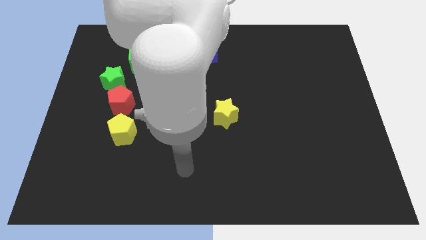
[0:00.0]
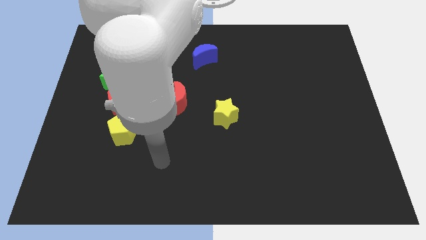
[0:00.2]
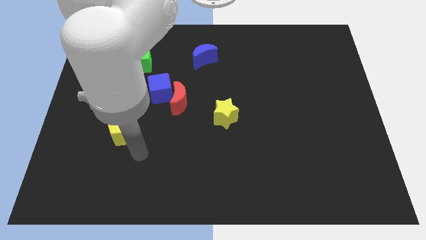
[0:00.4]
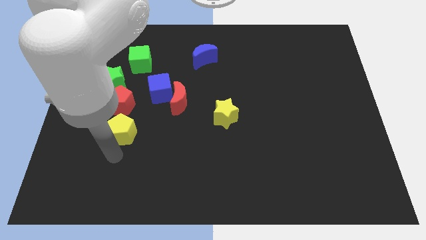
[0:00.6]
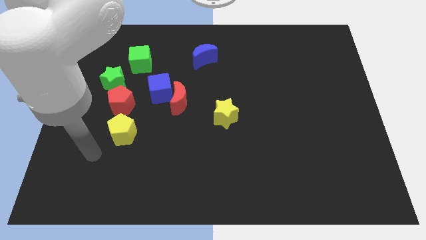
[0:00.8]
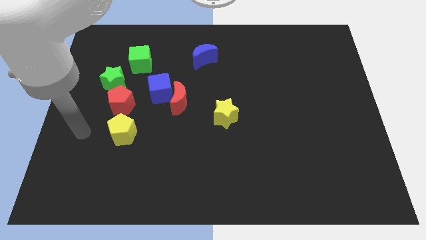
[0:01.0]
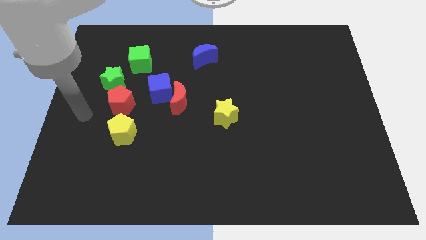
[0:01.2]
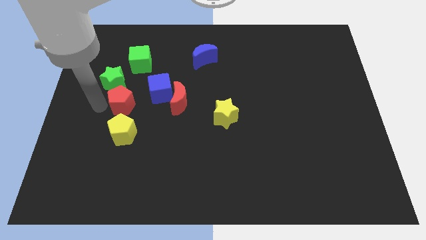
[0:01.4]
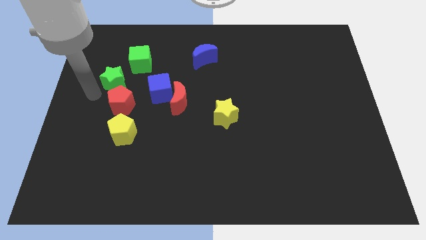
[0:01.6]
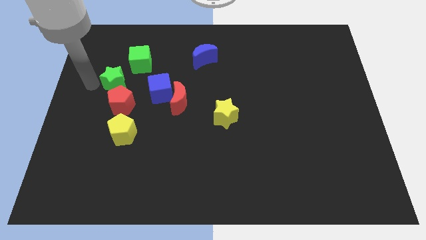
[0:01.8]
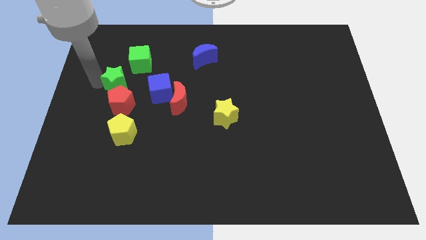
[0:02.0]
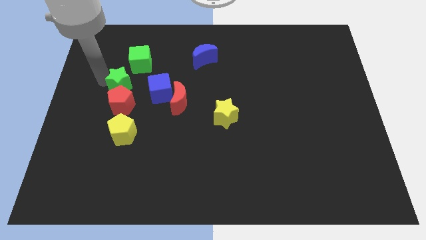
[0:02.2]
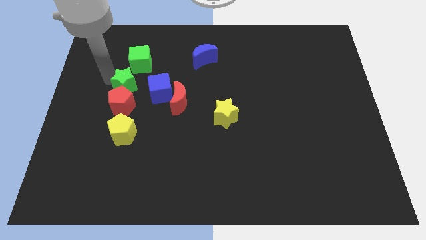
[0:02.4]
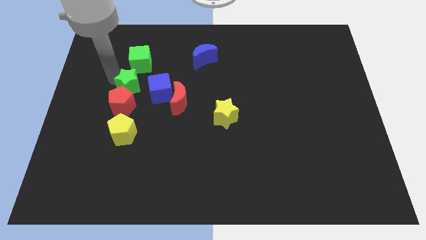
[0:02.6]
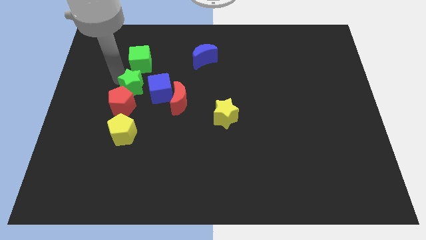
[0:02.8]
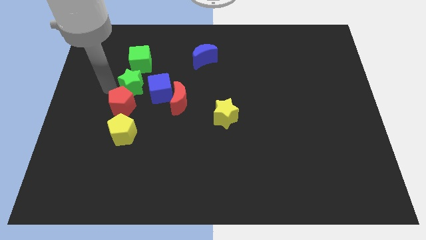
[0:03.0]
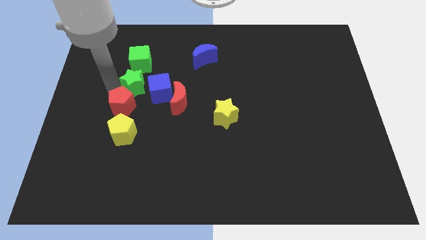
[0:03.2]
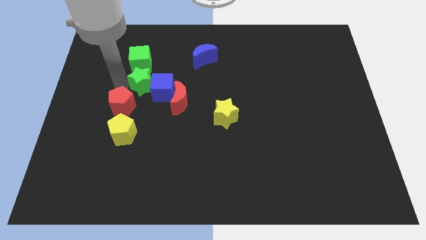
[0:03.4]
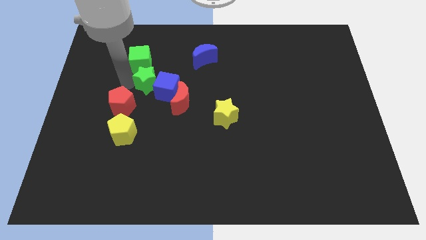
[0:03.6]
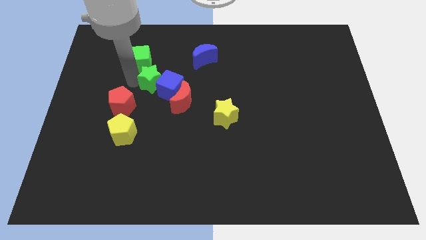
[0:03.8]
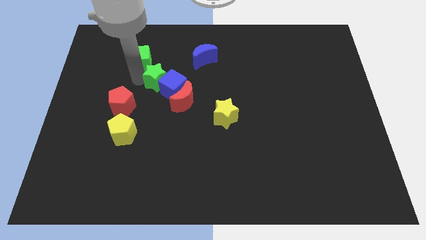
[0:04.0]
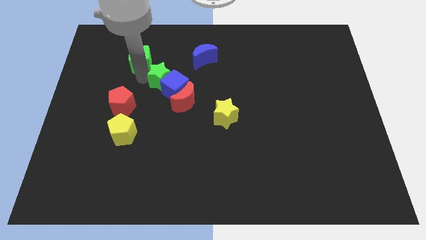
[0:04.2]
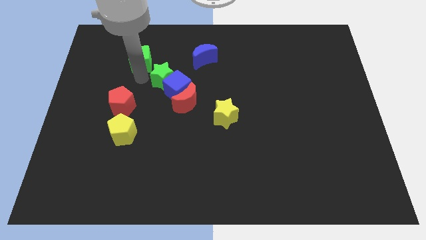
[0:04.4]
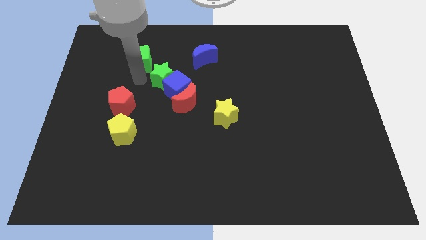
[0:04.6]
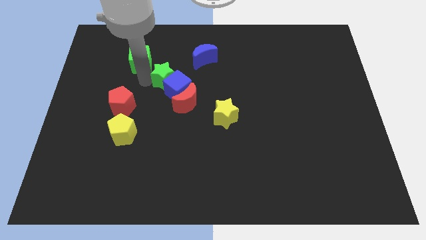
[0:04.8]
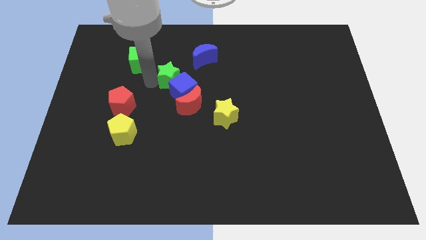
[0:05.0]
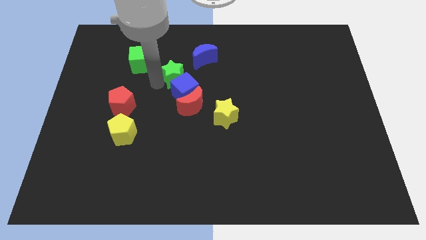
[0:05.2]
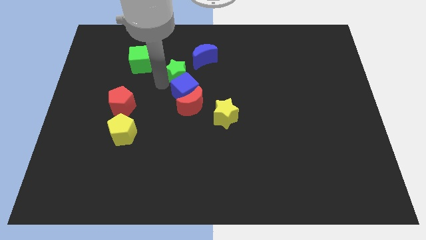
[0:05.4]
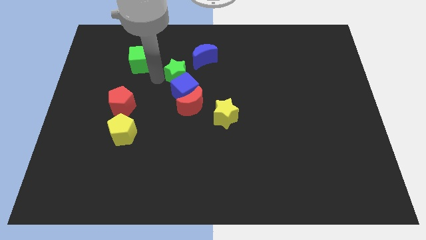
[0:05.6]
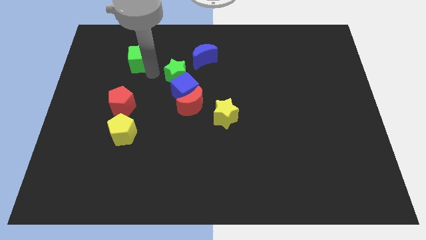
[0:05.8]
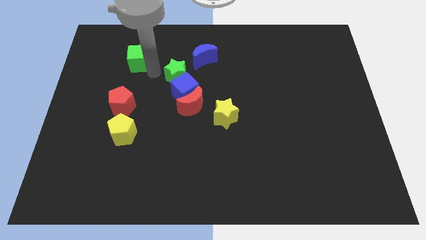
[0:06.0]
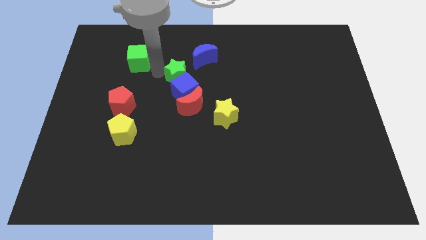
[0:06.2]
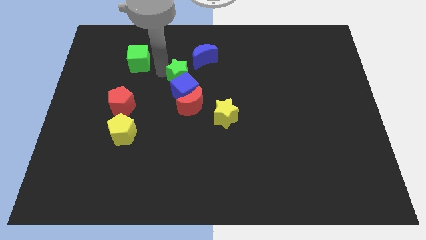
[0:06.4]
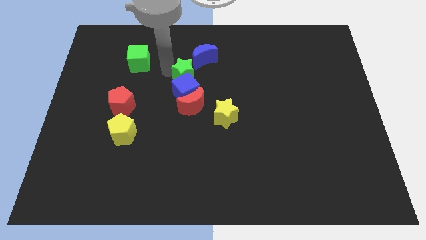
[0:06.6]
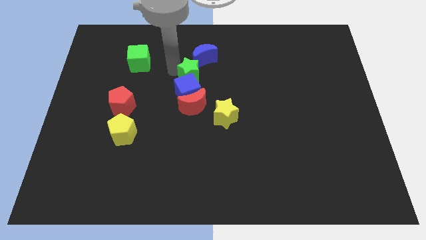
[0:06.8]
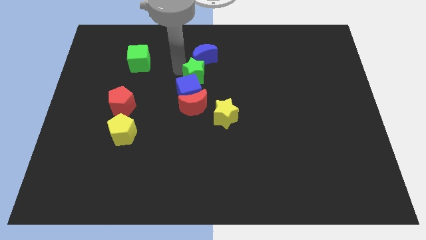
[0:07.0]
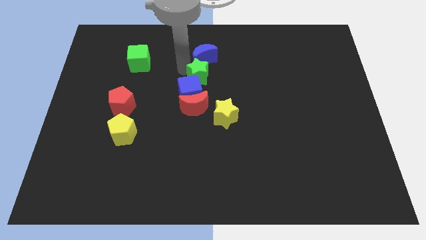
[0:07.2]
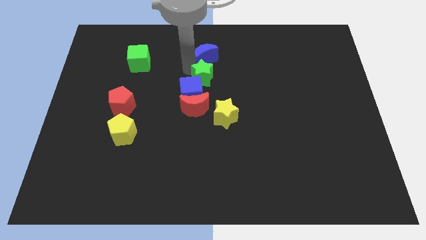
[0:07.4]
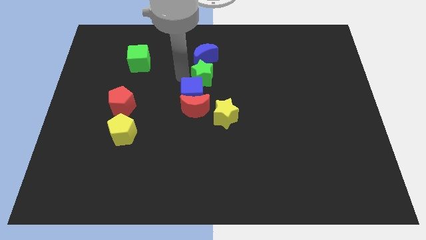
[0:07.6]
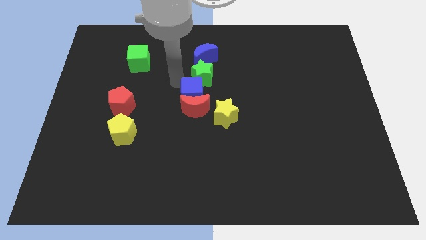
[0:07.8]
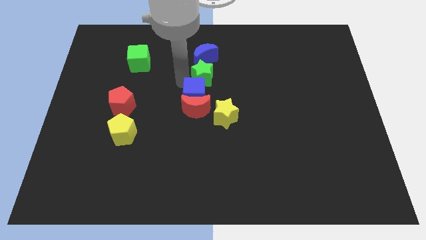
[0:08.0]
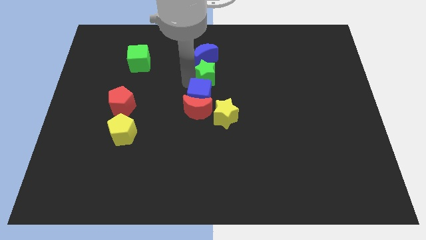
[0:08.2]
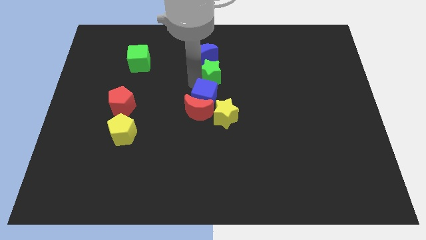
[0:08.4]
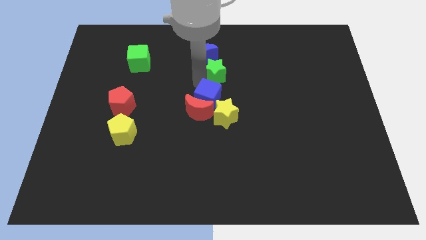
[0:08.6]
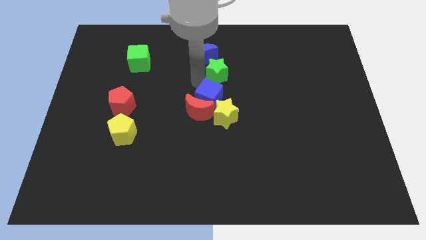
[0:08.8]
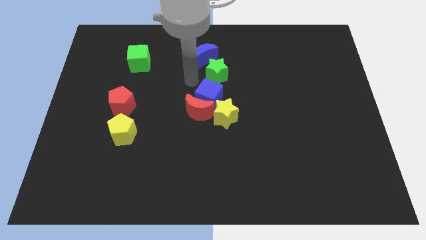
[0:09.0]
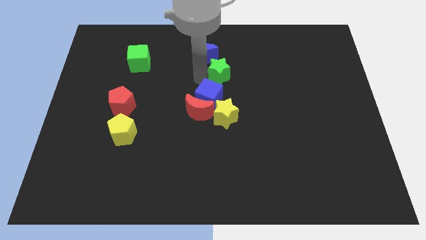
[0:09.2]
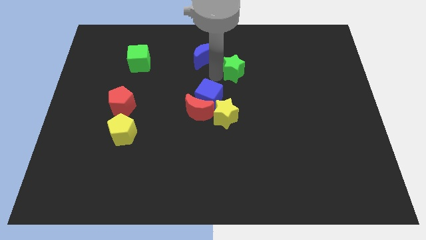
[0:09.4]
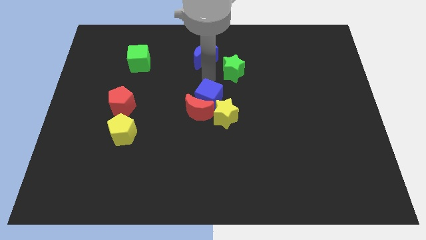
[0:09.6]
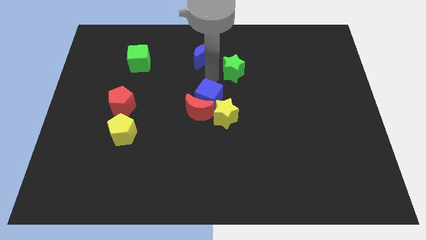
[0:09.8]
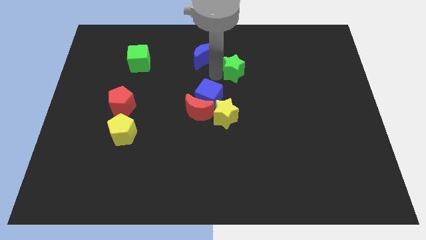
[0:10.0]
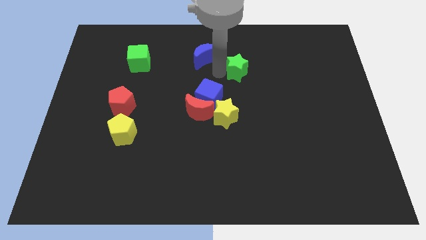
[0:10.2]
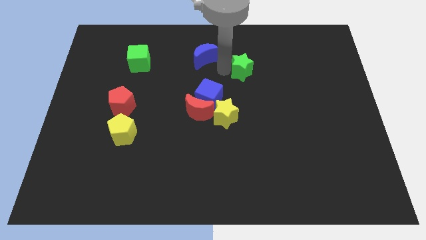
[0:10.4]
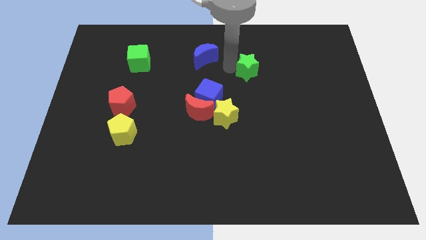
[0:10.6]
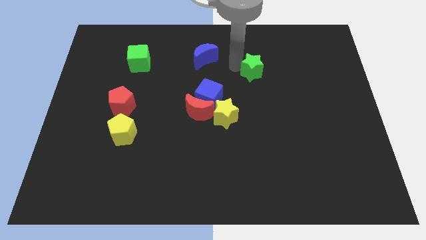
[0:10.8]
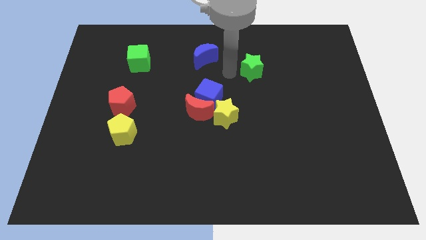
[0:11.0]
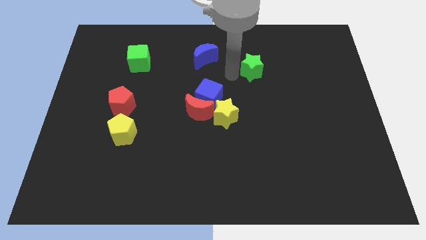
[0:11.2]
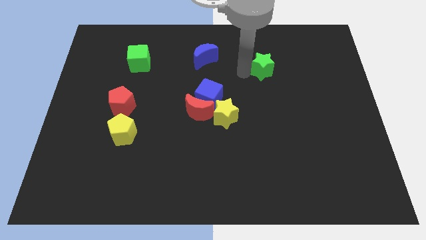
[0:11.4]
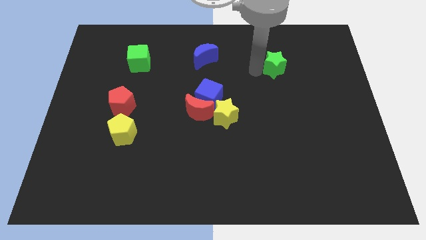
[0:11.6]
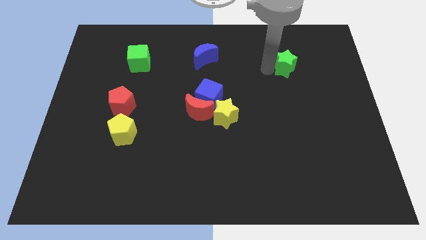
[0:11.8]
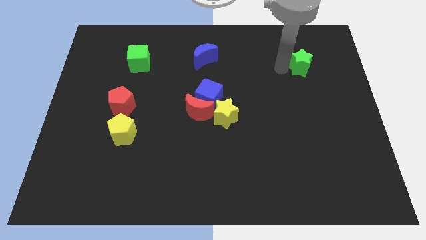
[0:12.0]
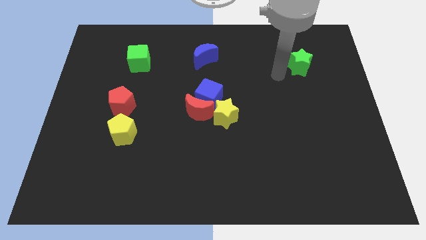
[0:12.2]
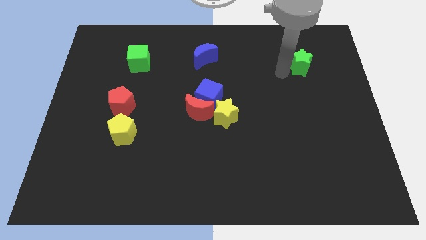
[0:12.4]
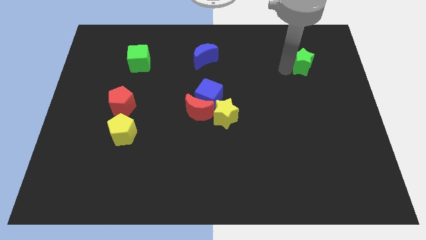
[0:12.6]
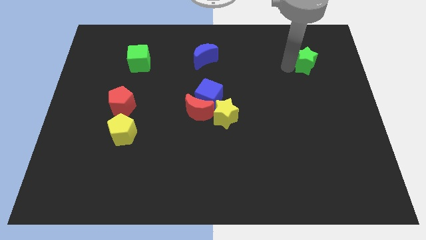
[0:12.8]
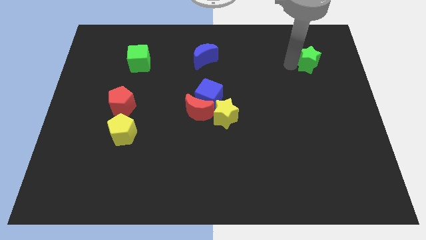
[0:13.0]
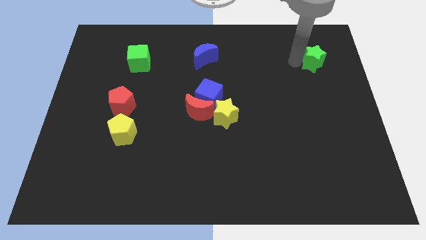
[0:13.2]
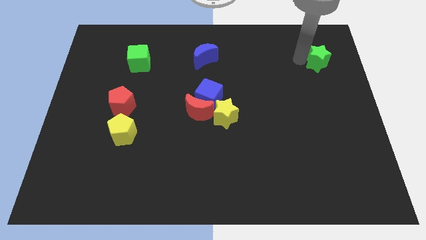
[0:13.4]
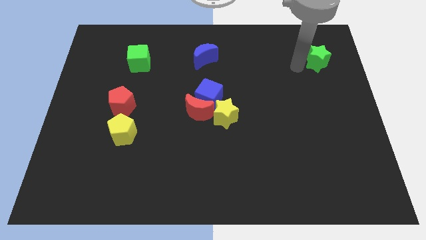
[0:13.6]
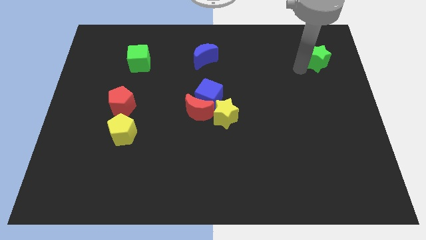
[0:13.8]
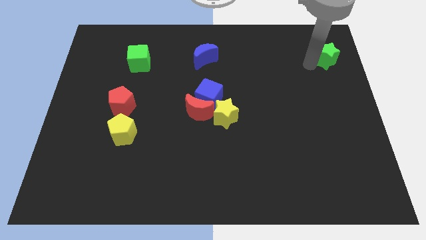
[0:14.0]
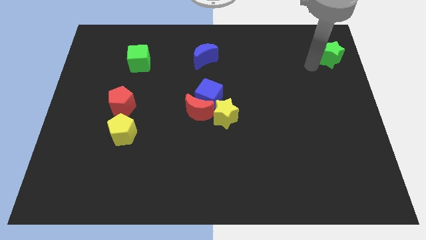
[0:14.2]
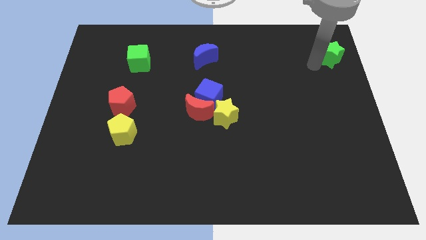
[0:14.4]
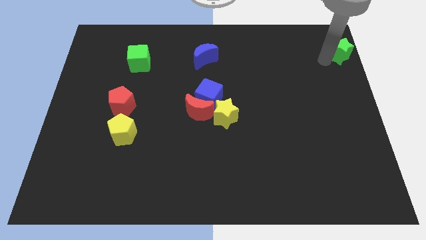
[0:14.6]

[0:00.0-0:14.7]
move the green star to the top right
